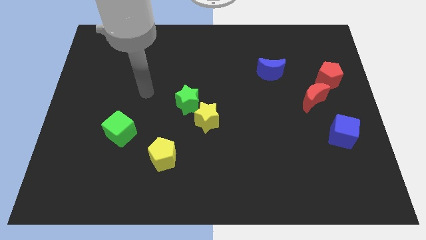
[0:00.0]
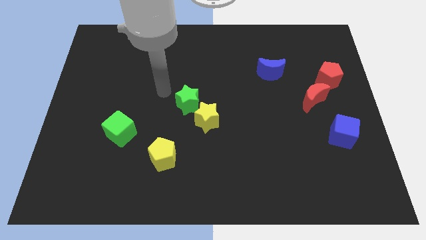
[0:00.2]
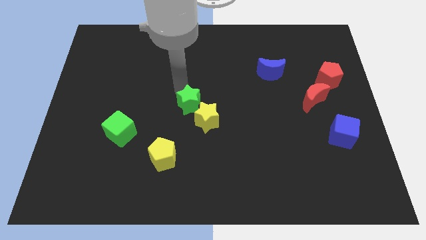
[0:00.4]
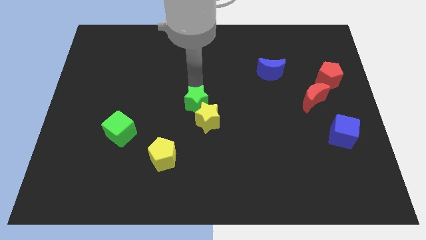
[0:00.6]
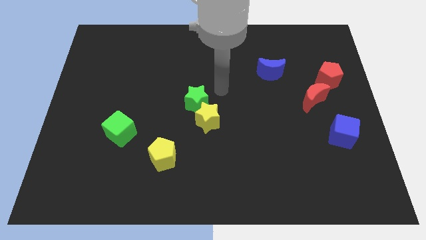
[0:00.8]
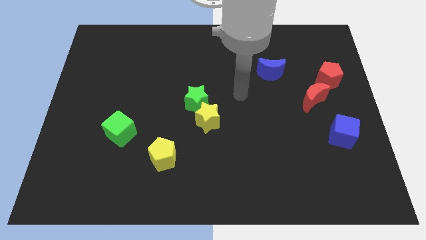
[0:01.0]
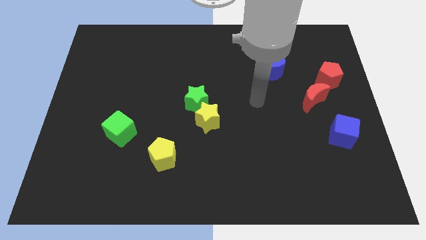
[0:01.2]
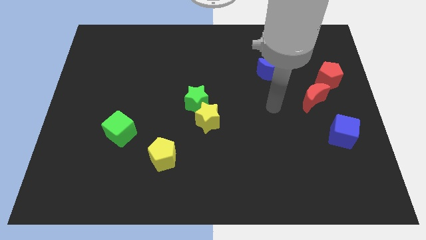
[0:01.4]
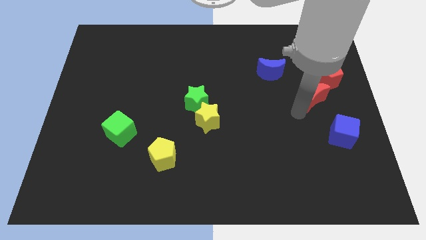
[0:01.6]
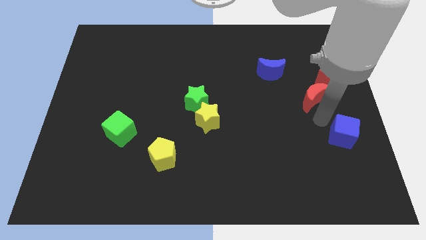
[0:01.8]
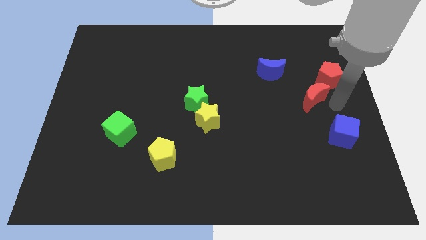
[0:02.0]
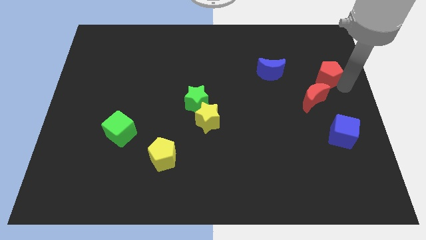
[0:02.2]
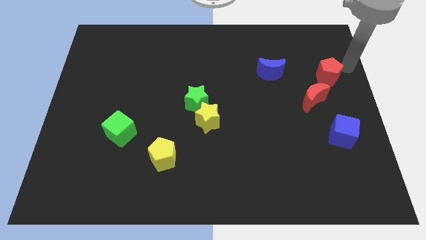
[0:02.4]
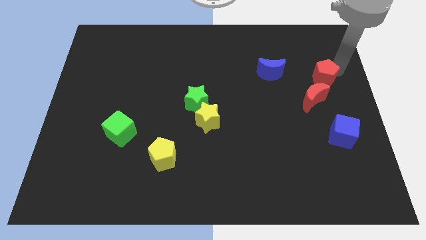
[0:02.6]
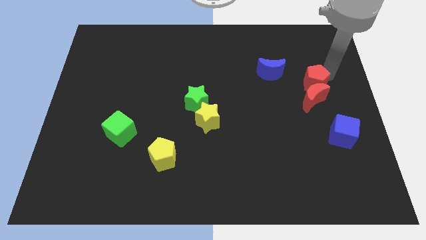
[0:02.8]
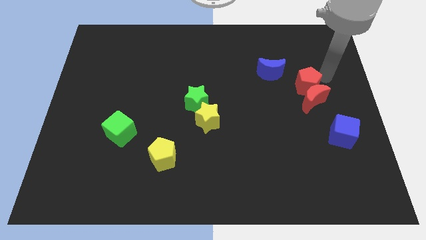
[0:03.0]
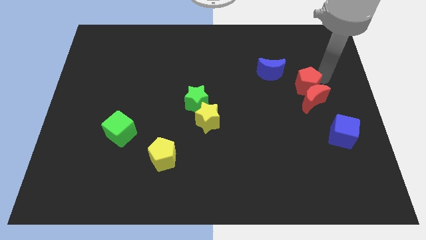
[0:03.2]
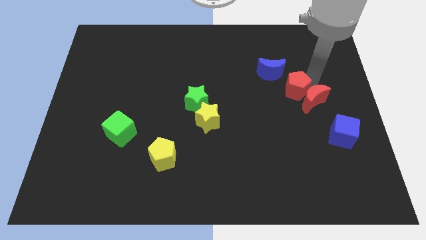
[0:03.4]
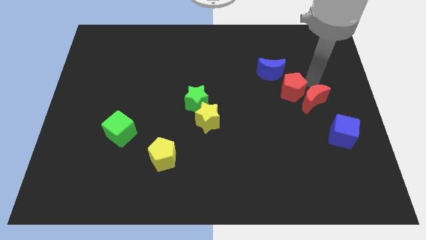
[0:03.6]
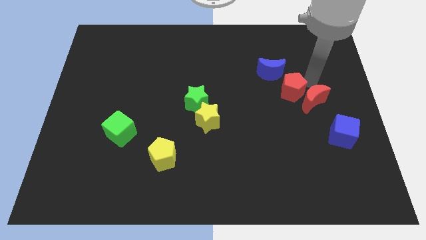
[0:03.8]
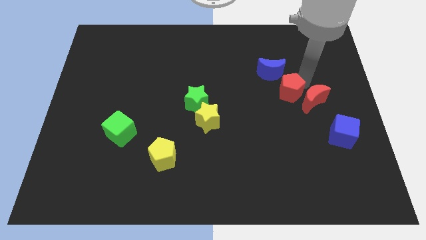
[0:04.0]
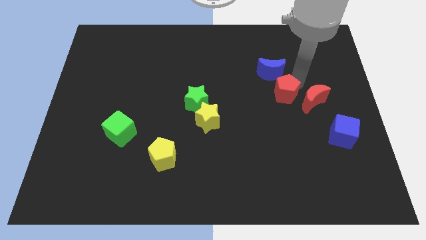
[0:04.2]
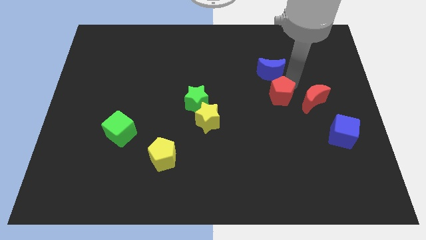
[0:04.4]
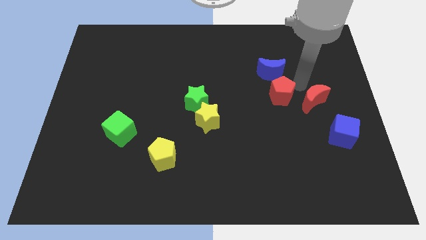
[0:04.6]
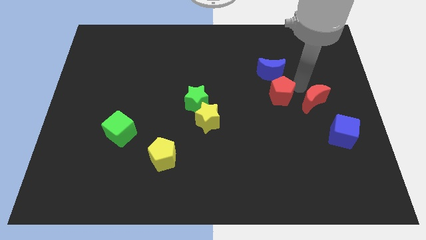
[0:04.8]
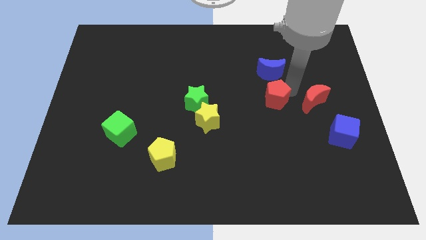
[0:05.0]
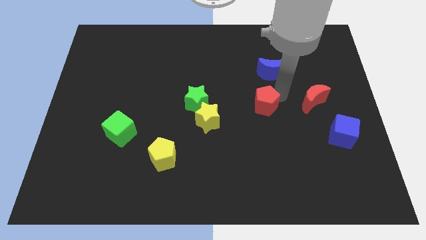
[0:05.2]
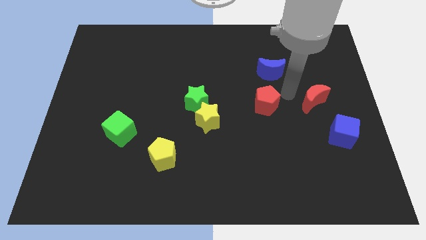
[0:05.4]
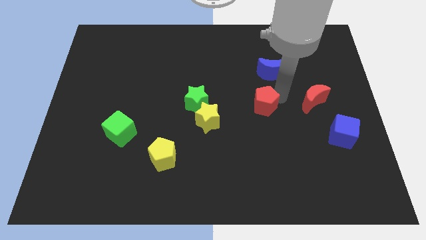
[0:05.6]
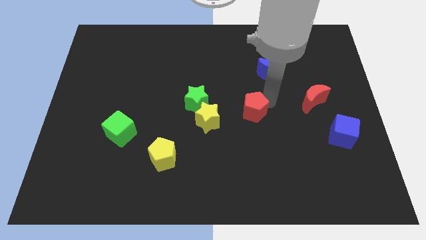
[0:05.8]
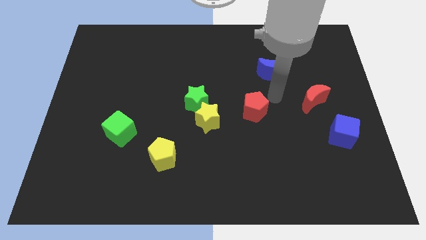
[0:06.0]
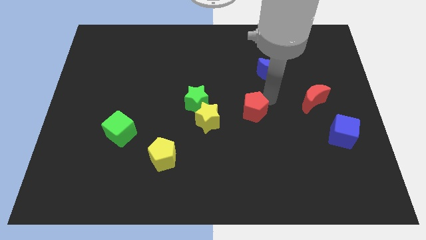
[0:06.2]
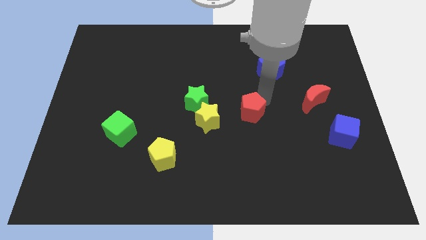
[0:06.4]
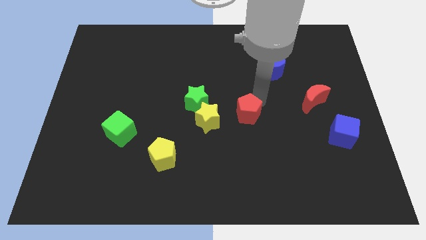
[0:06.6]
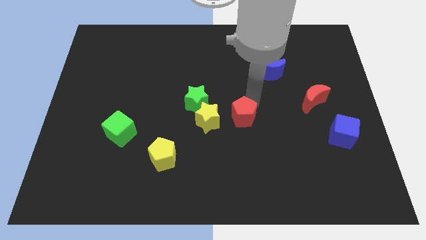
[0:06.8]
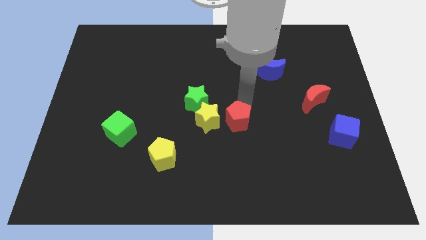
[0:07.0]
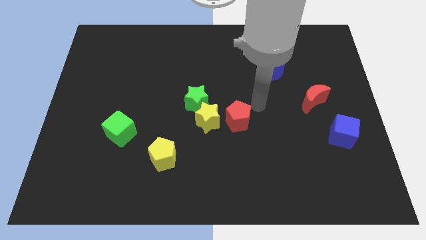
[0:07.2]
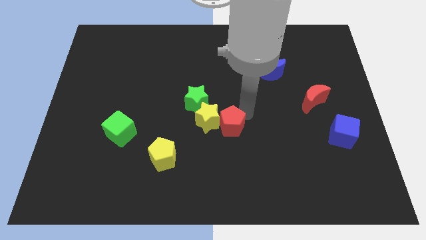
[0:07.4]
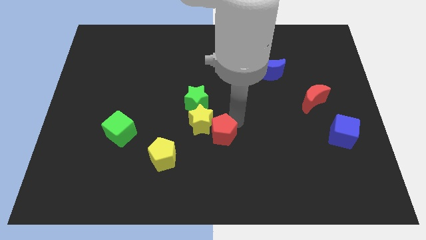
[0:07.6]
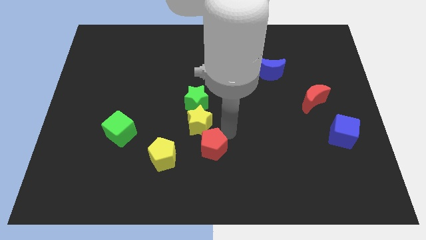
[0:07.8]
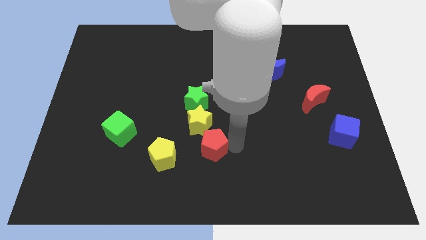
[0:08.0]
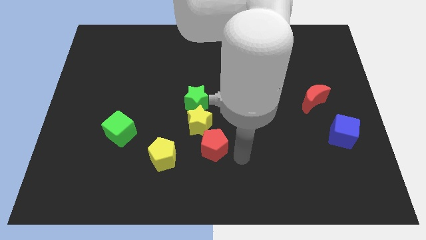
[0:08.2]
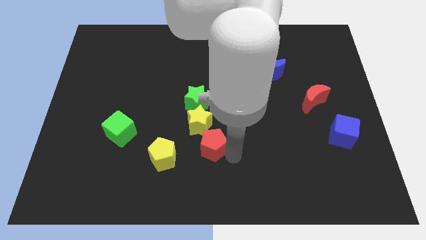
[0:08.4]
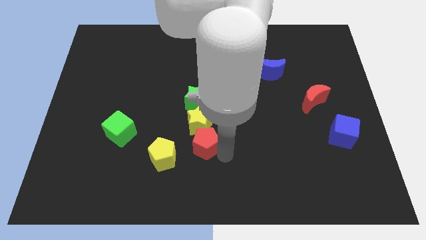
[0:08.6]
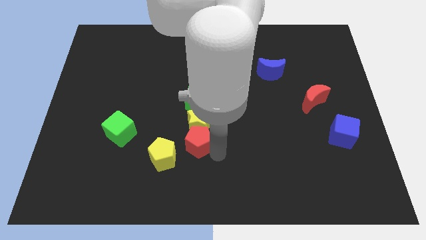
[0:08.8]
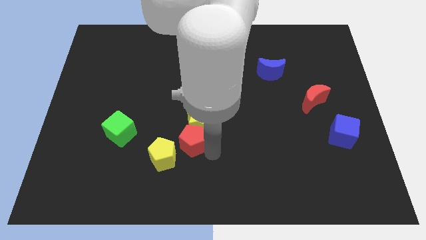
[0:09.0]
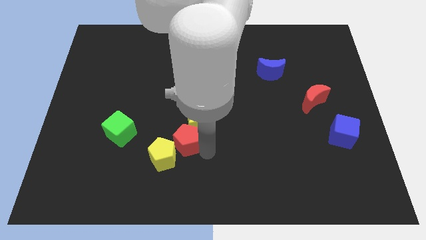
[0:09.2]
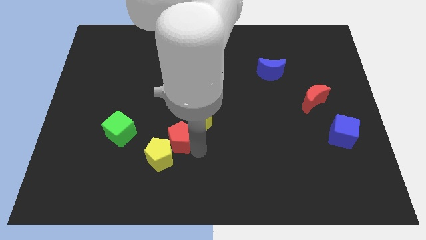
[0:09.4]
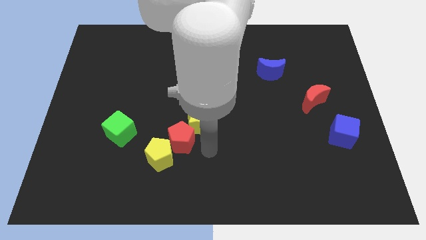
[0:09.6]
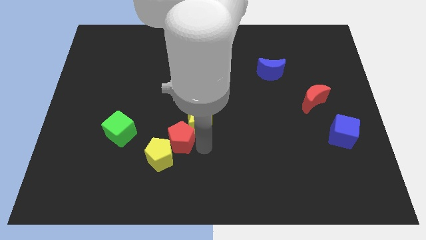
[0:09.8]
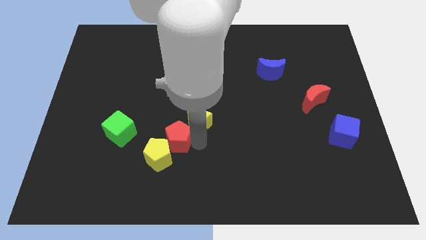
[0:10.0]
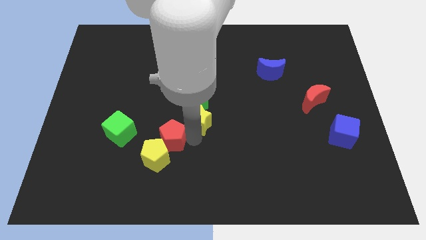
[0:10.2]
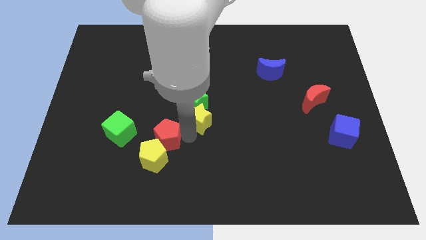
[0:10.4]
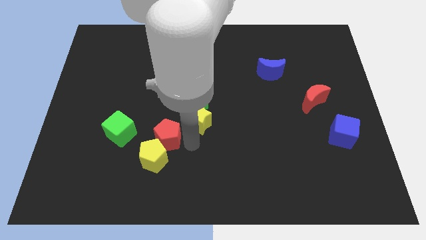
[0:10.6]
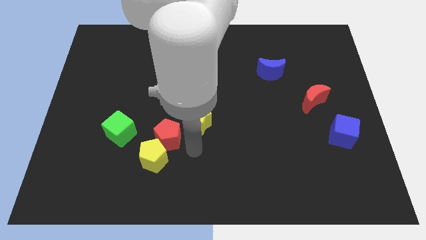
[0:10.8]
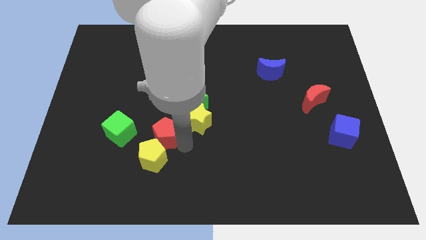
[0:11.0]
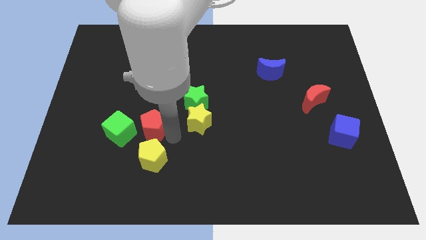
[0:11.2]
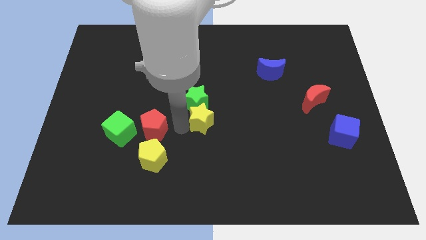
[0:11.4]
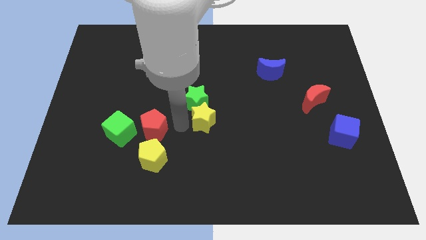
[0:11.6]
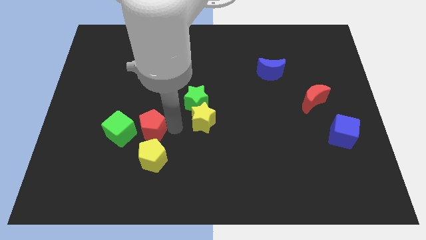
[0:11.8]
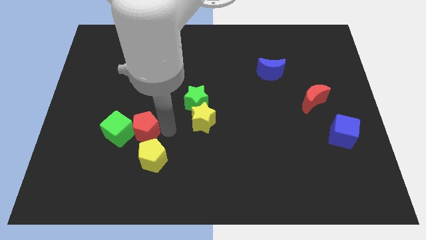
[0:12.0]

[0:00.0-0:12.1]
put the red pentagon close to the green cube
